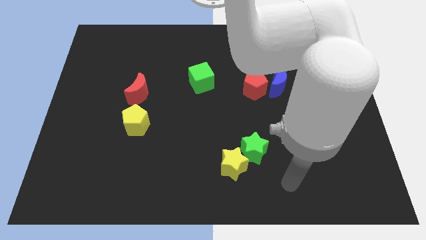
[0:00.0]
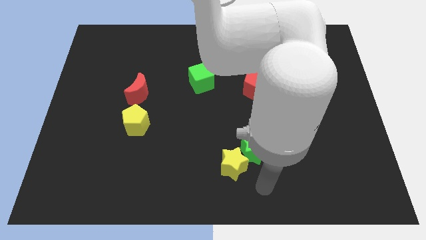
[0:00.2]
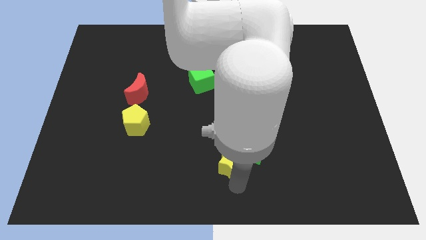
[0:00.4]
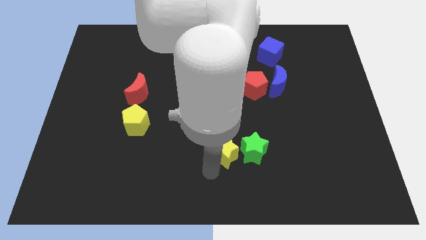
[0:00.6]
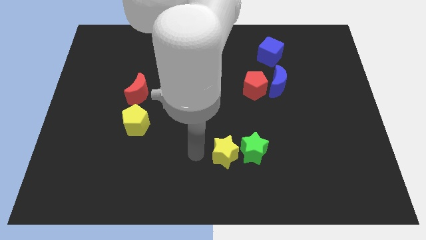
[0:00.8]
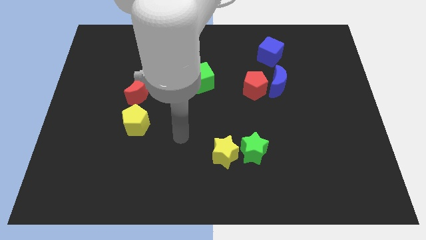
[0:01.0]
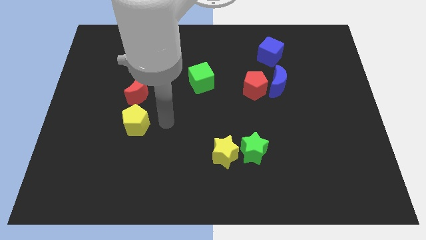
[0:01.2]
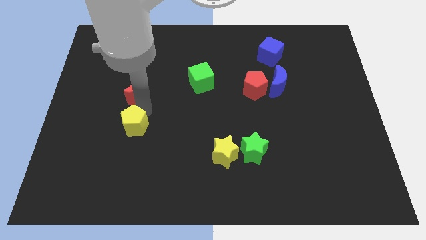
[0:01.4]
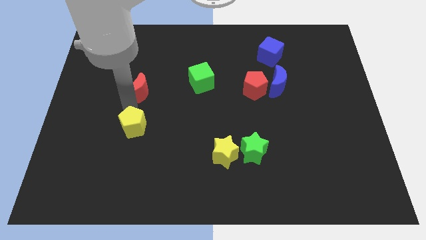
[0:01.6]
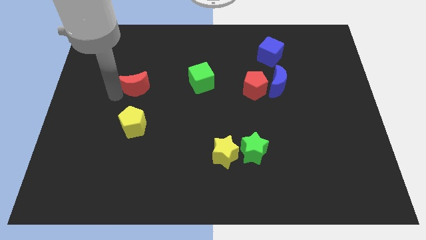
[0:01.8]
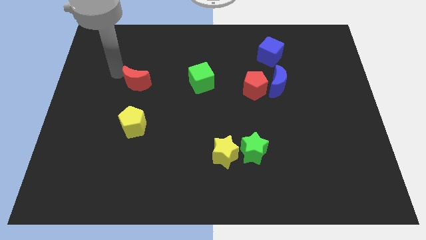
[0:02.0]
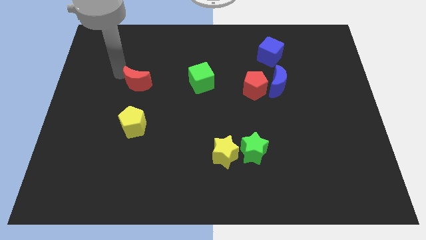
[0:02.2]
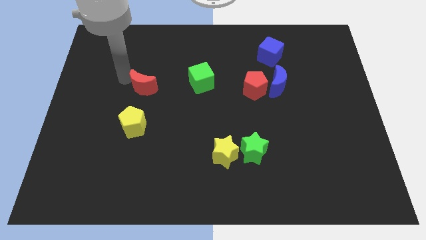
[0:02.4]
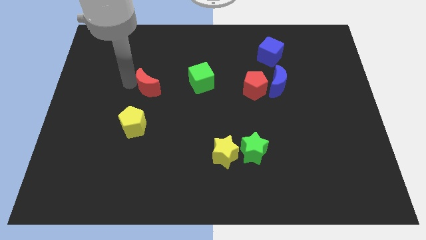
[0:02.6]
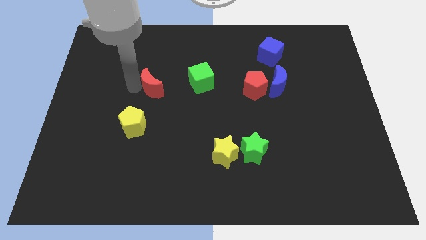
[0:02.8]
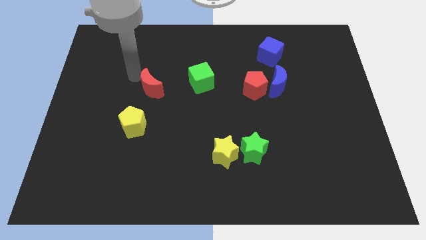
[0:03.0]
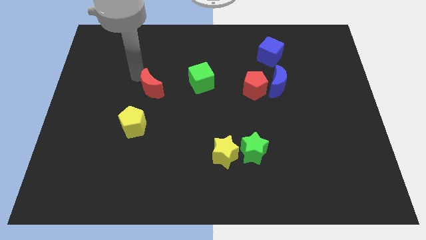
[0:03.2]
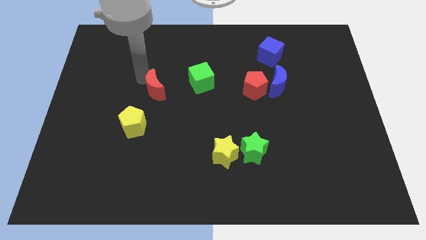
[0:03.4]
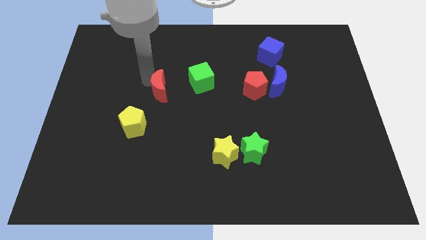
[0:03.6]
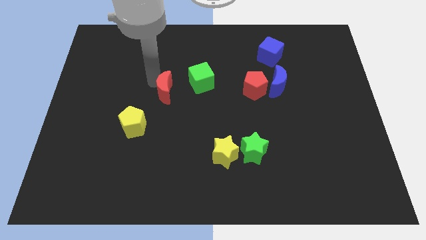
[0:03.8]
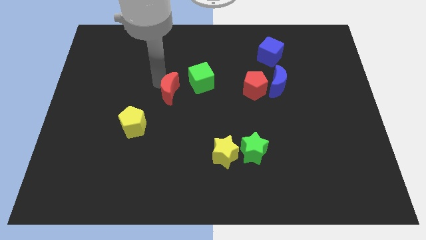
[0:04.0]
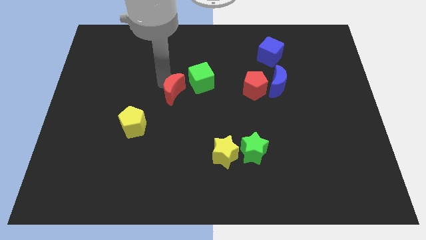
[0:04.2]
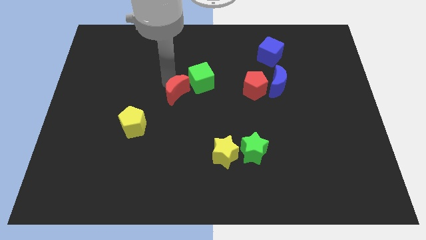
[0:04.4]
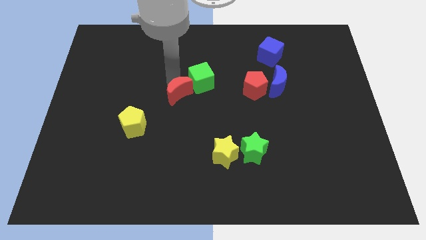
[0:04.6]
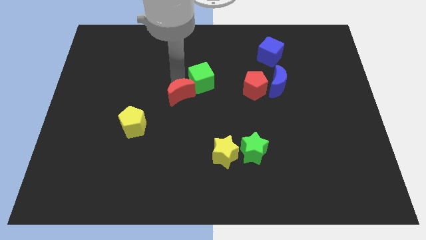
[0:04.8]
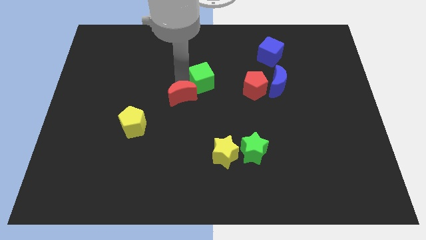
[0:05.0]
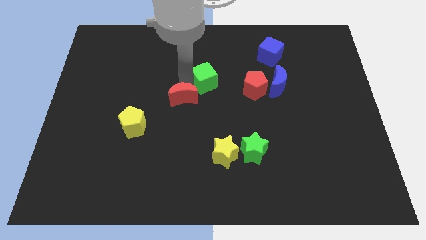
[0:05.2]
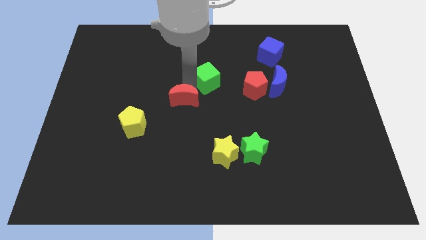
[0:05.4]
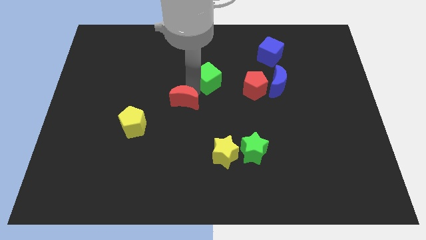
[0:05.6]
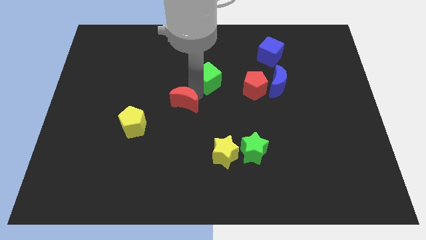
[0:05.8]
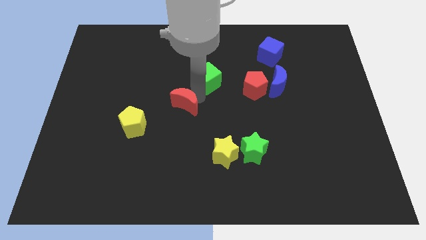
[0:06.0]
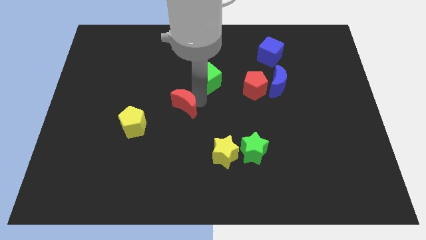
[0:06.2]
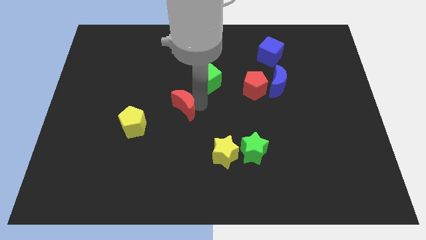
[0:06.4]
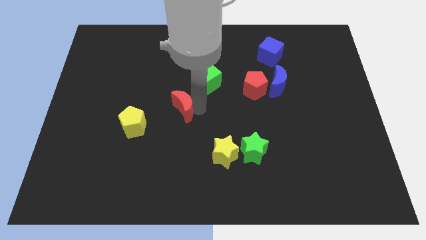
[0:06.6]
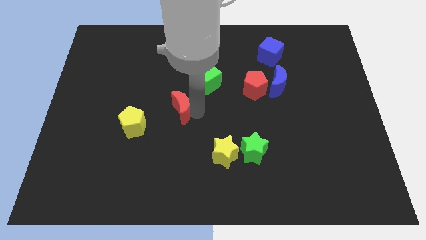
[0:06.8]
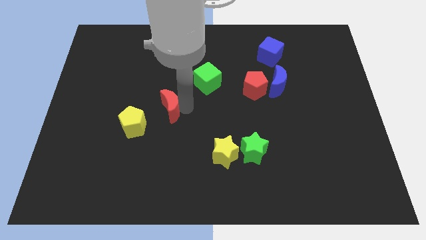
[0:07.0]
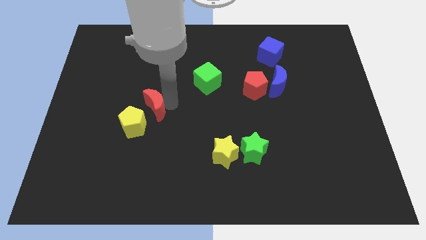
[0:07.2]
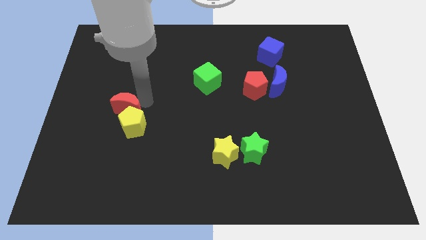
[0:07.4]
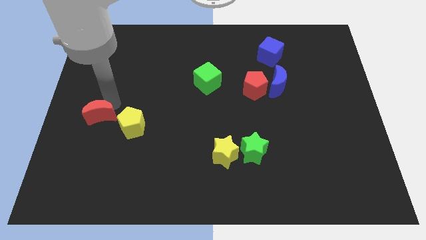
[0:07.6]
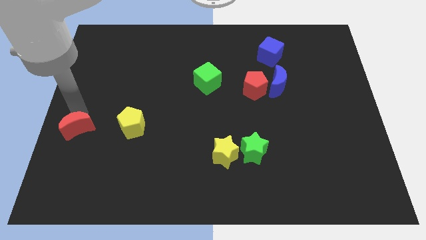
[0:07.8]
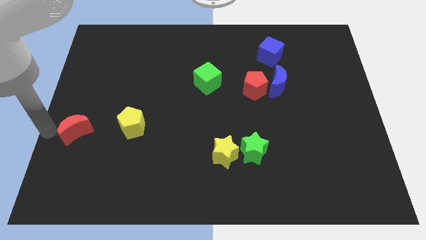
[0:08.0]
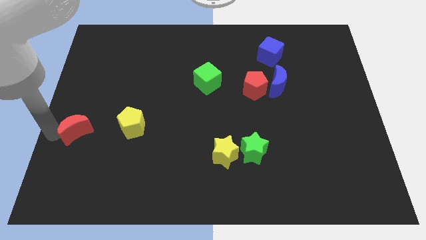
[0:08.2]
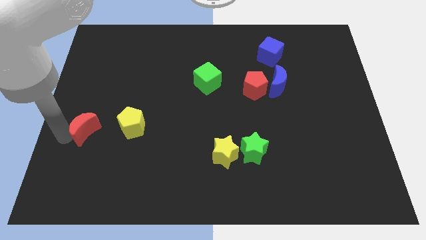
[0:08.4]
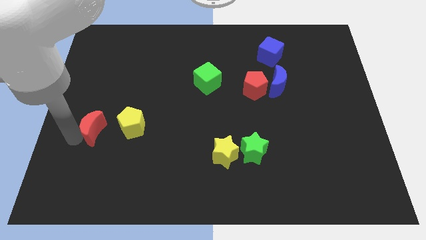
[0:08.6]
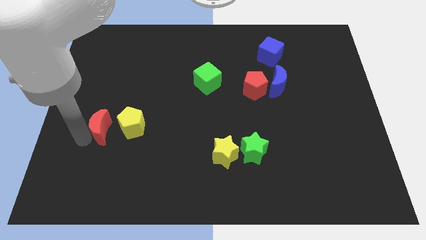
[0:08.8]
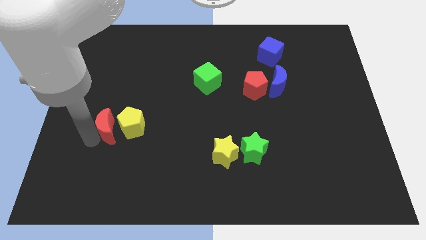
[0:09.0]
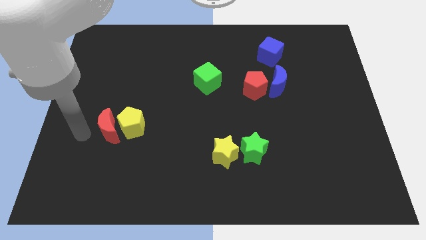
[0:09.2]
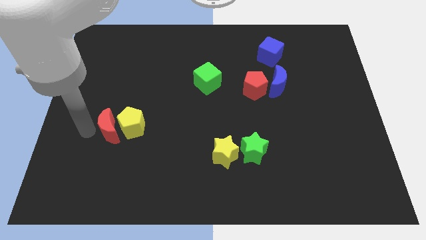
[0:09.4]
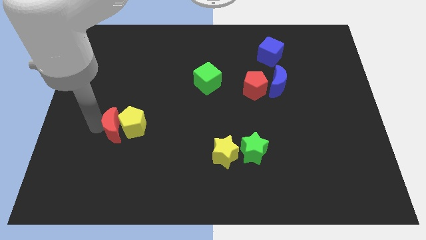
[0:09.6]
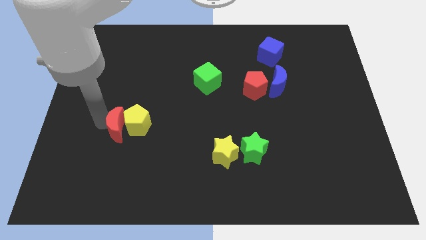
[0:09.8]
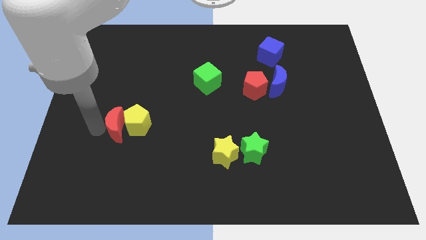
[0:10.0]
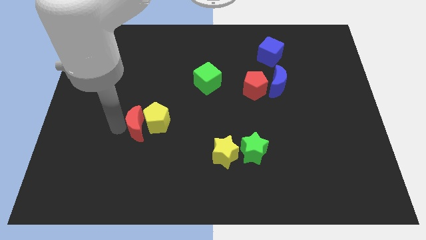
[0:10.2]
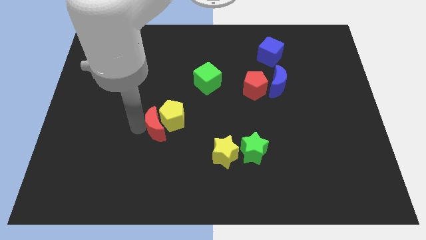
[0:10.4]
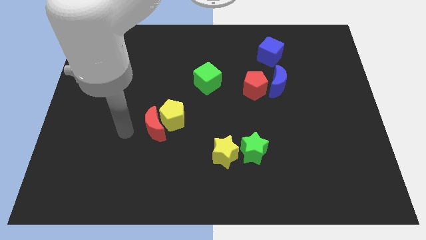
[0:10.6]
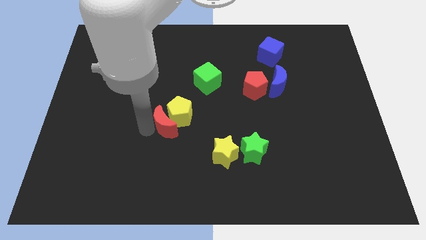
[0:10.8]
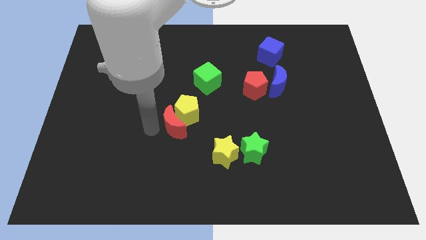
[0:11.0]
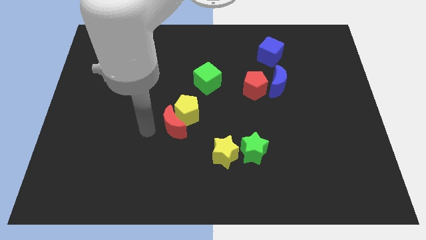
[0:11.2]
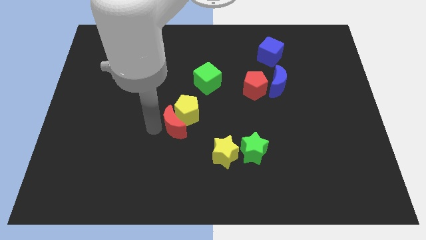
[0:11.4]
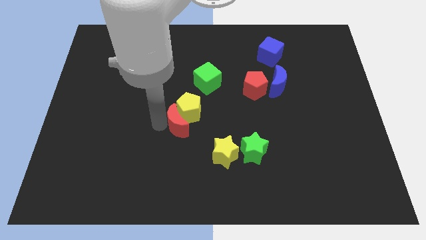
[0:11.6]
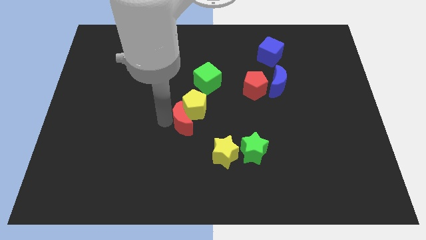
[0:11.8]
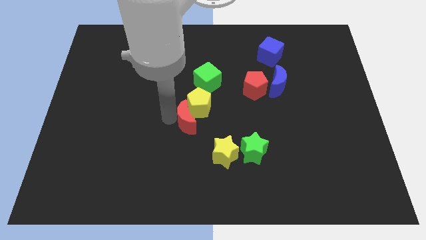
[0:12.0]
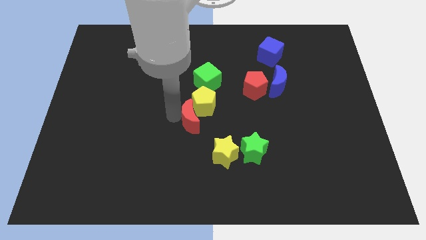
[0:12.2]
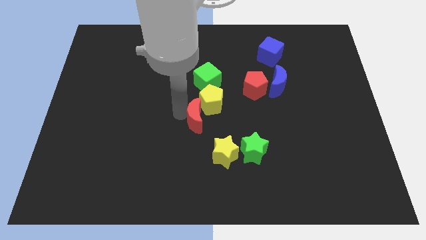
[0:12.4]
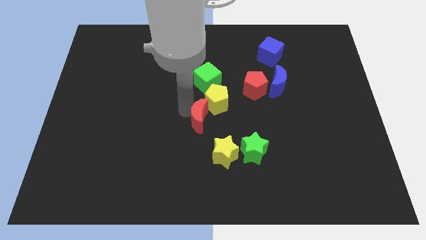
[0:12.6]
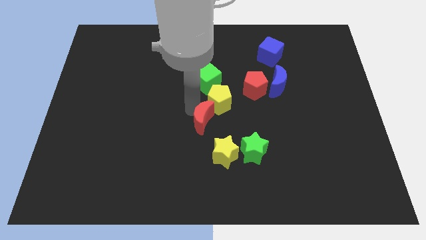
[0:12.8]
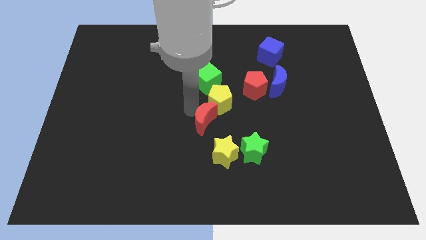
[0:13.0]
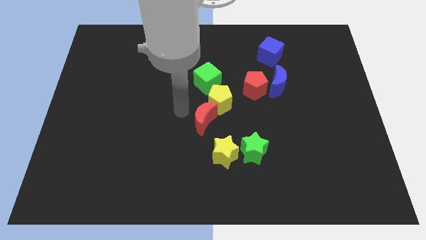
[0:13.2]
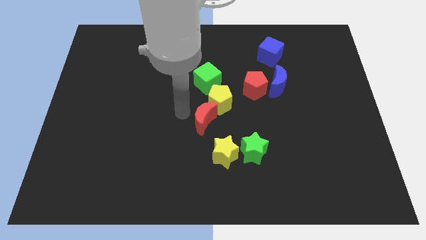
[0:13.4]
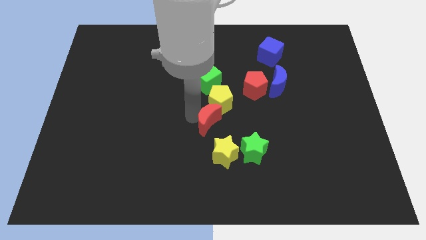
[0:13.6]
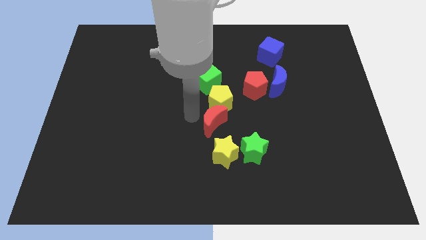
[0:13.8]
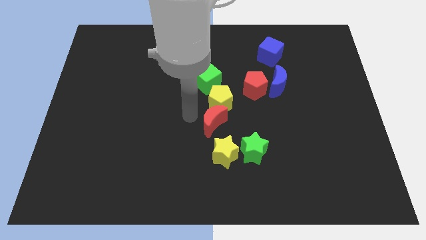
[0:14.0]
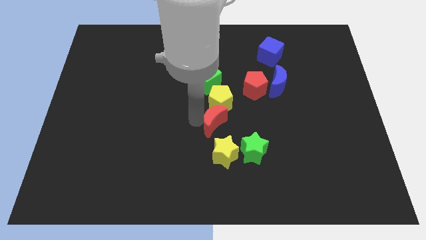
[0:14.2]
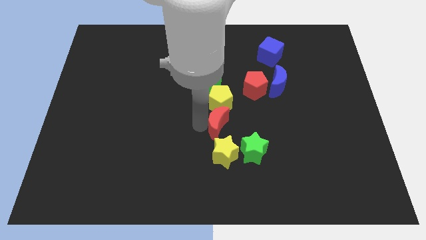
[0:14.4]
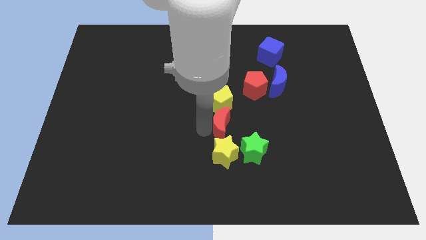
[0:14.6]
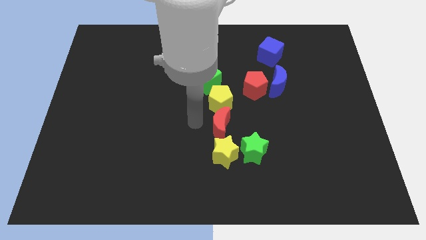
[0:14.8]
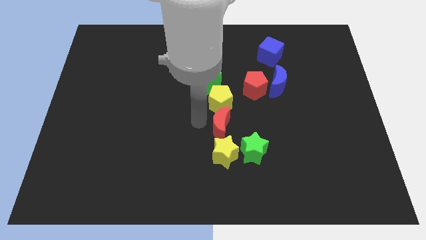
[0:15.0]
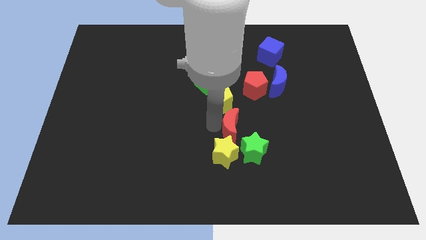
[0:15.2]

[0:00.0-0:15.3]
put the red moon to the top right side of the yellow star

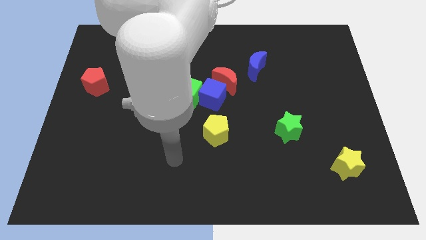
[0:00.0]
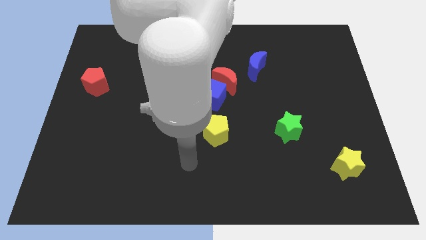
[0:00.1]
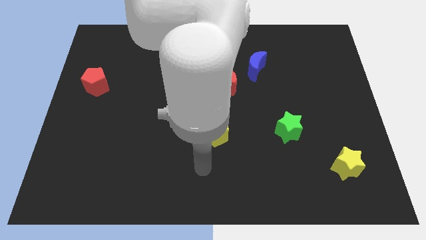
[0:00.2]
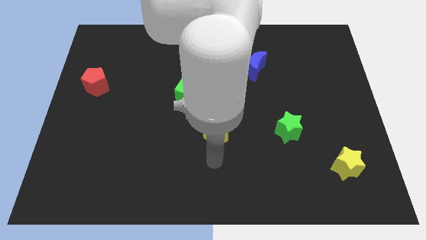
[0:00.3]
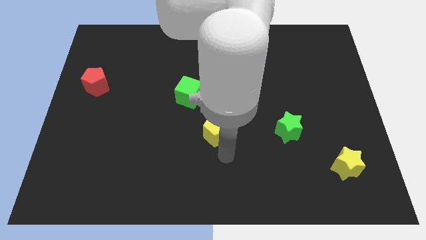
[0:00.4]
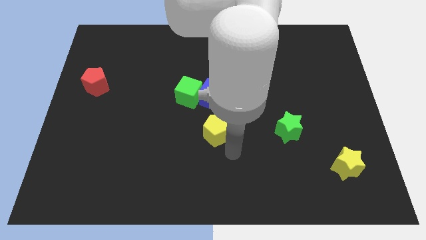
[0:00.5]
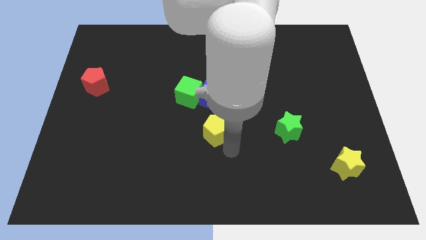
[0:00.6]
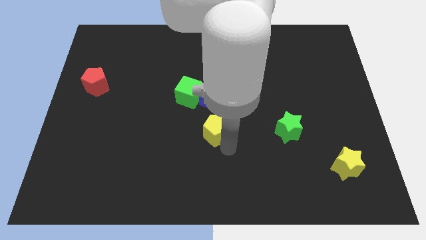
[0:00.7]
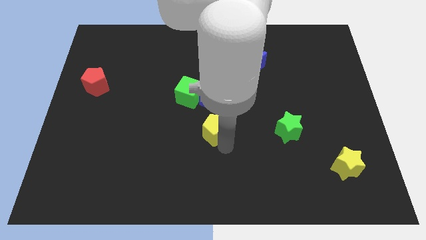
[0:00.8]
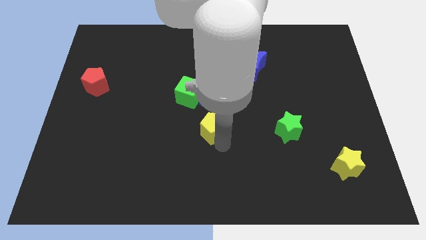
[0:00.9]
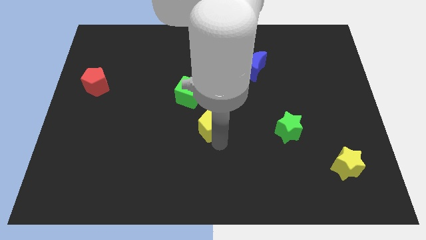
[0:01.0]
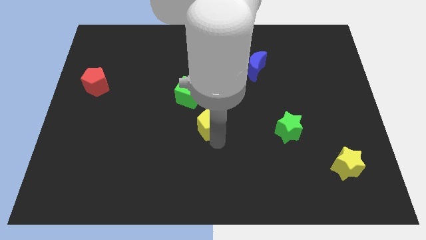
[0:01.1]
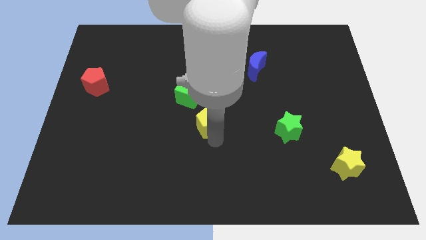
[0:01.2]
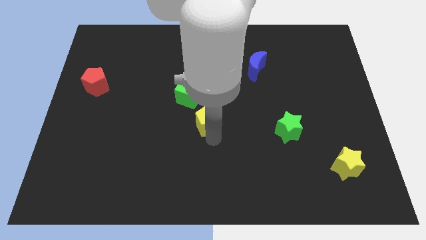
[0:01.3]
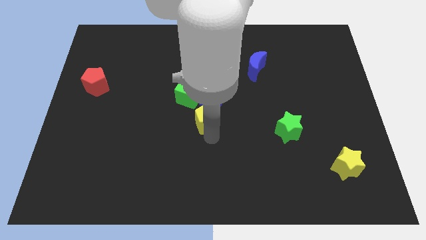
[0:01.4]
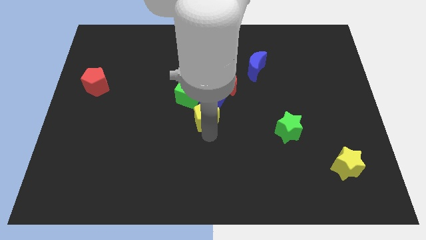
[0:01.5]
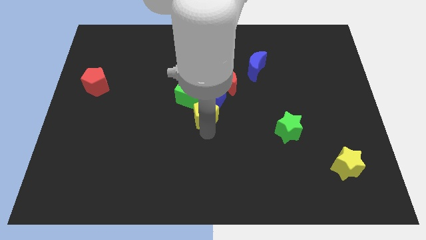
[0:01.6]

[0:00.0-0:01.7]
move the yellow pentagon to the bottom left of the red moon
